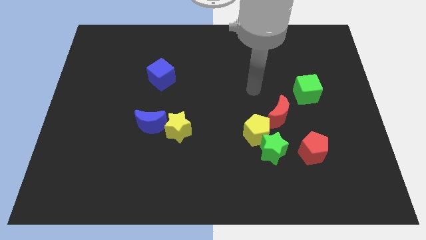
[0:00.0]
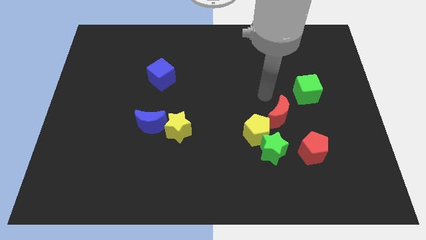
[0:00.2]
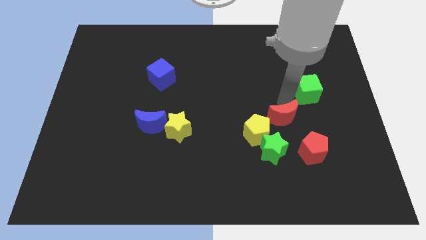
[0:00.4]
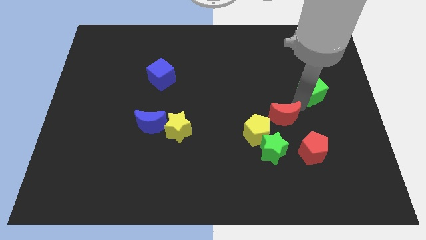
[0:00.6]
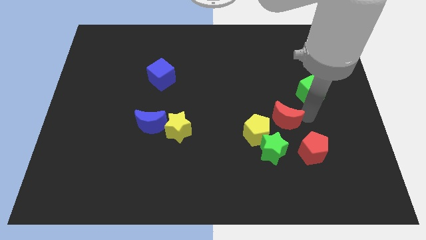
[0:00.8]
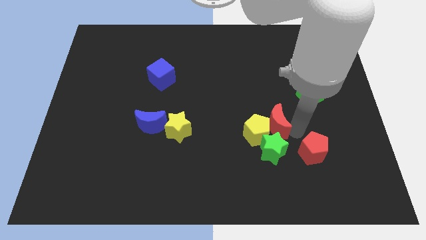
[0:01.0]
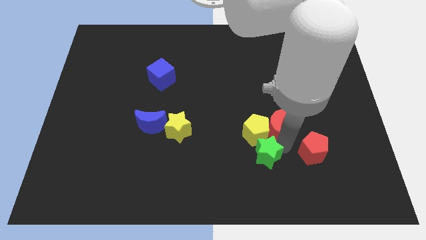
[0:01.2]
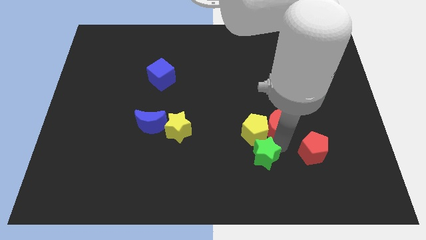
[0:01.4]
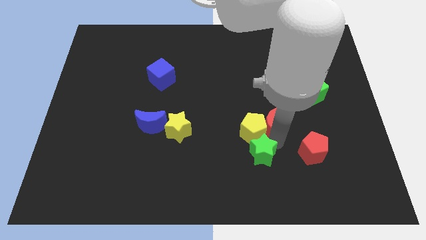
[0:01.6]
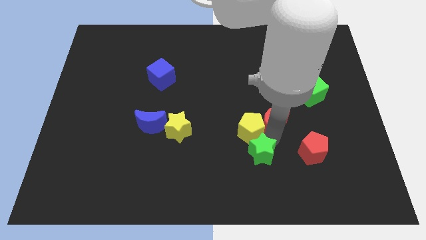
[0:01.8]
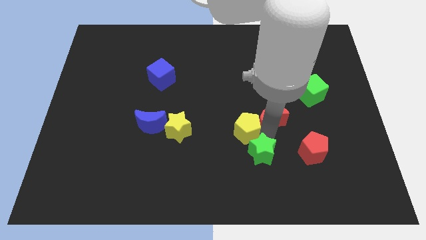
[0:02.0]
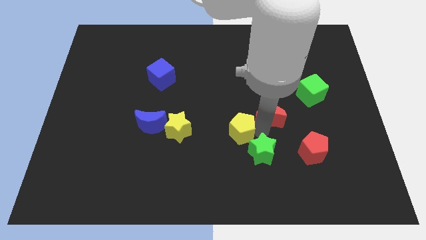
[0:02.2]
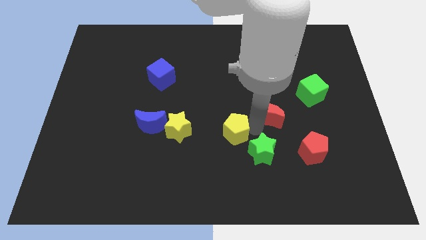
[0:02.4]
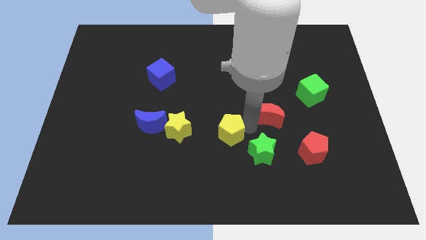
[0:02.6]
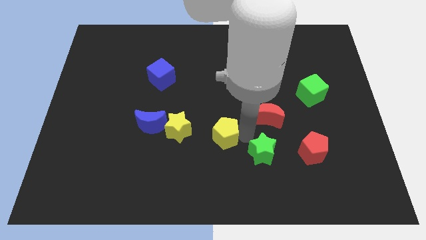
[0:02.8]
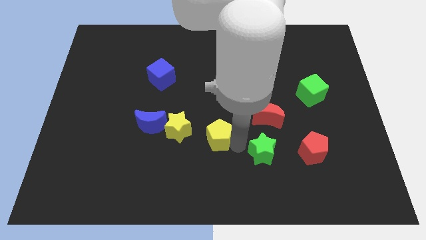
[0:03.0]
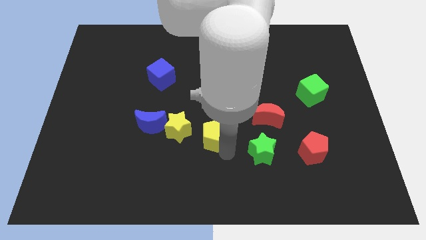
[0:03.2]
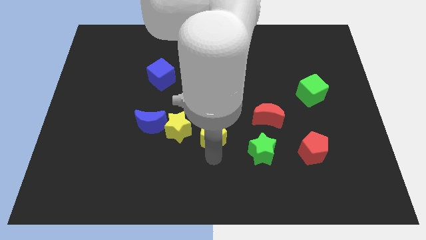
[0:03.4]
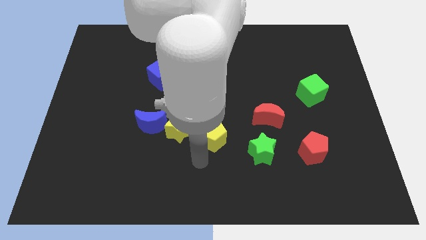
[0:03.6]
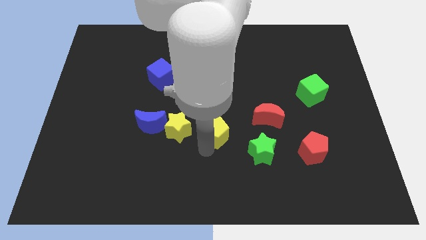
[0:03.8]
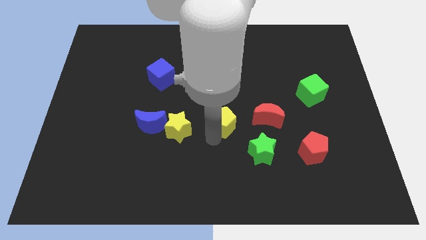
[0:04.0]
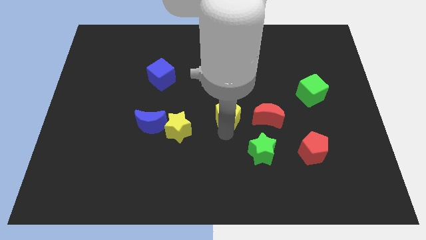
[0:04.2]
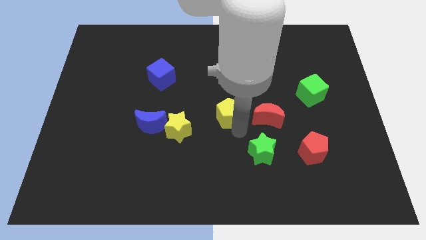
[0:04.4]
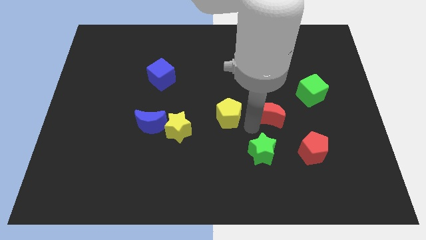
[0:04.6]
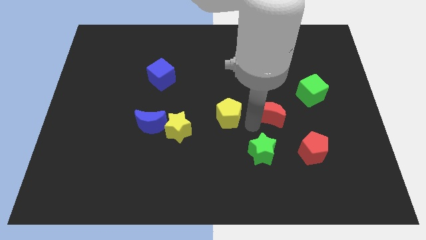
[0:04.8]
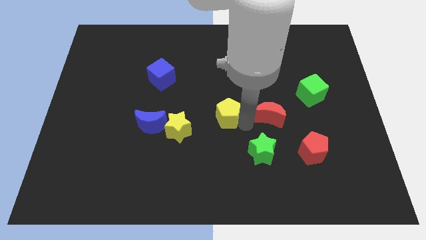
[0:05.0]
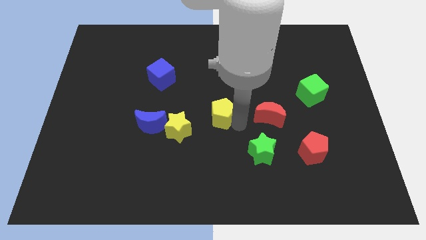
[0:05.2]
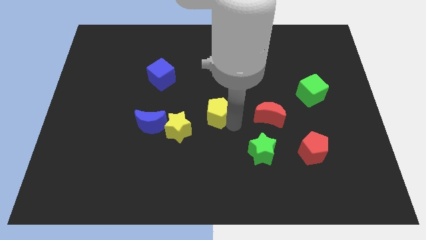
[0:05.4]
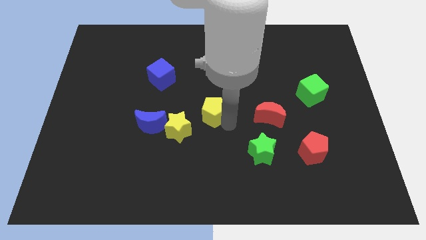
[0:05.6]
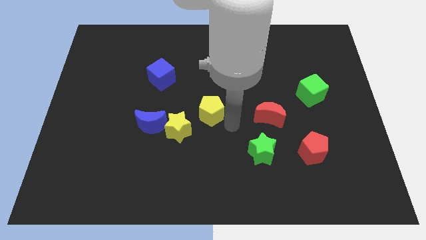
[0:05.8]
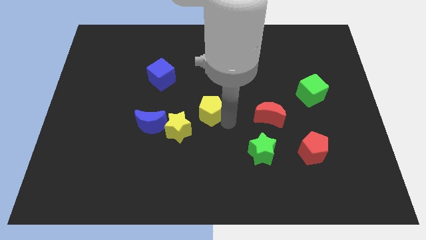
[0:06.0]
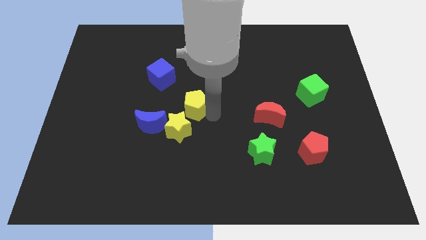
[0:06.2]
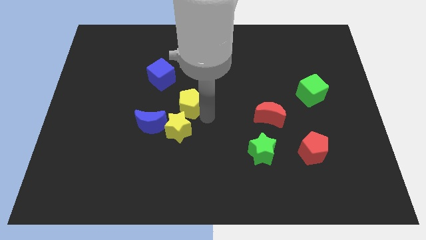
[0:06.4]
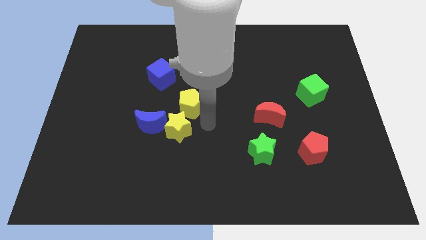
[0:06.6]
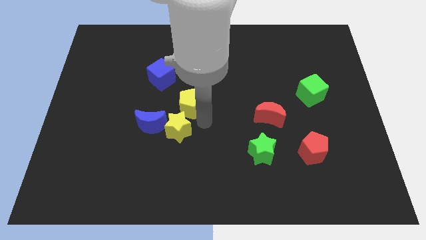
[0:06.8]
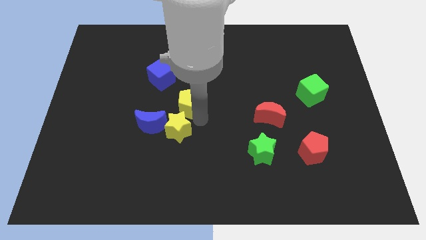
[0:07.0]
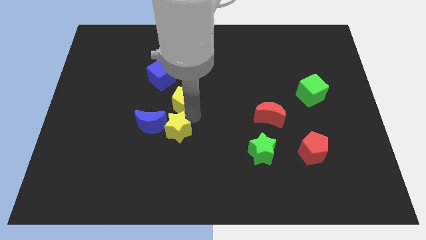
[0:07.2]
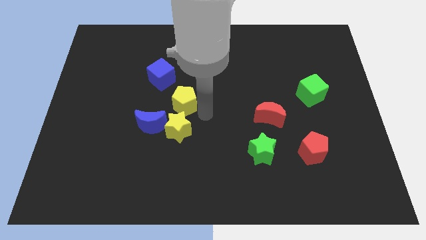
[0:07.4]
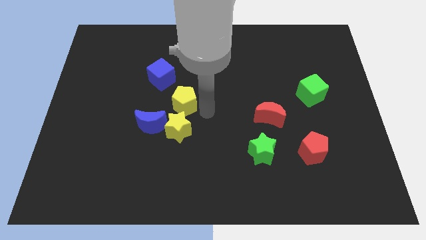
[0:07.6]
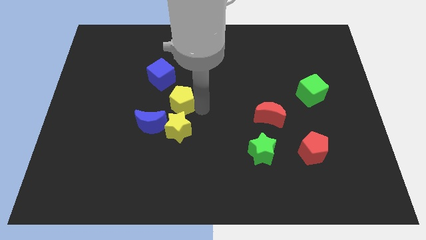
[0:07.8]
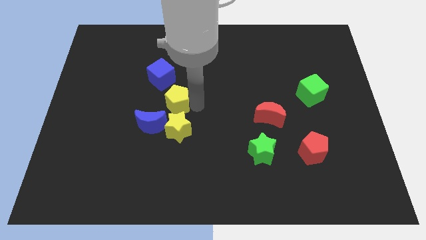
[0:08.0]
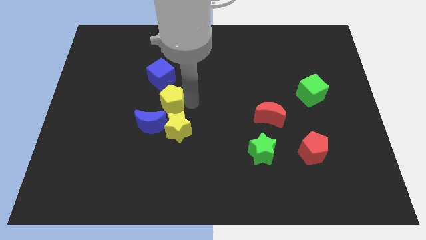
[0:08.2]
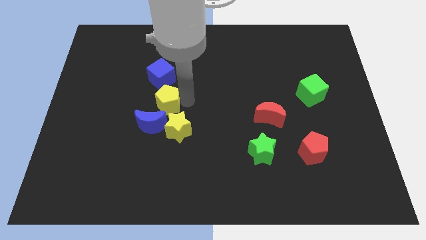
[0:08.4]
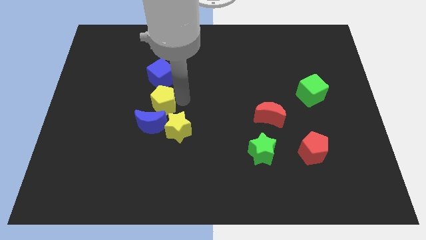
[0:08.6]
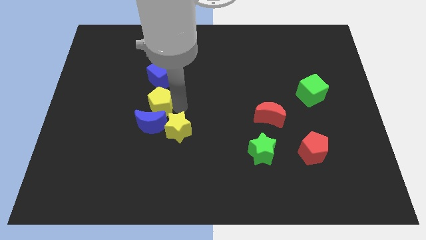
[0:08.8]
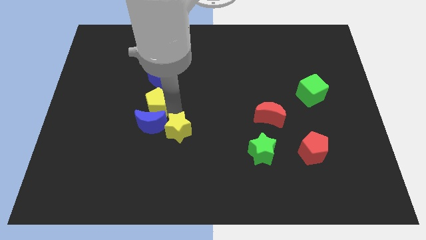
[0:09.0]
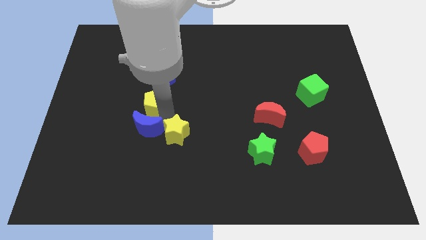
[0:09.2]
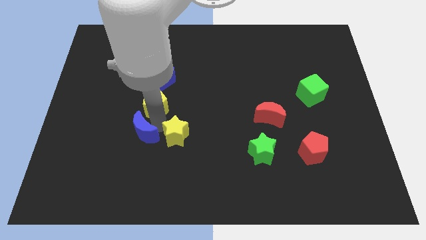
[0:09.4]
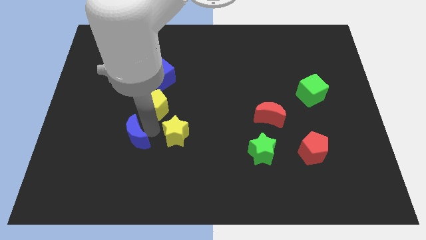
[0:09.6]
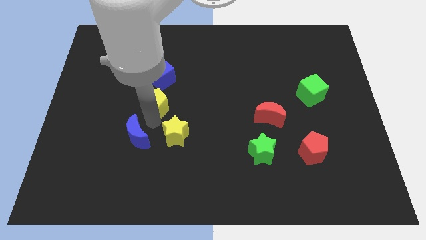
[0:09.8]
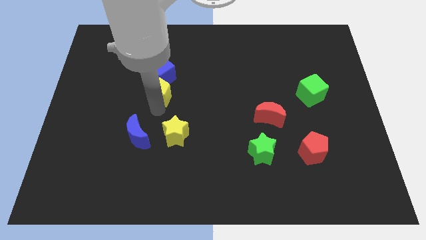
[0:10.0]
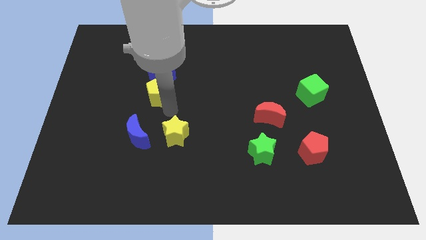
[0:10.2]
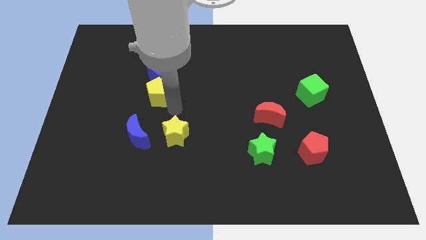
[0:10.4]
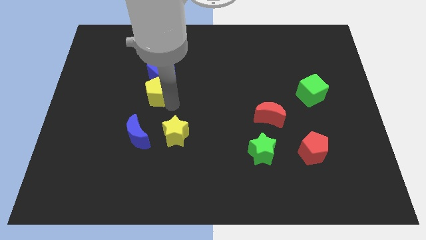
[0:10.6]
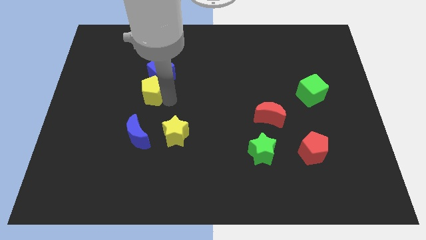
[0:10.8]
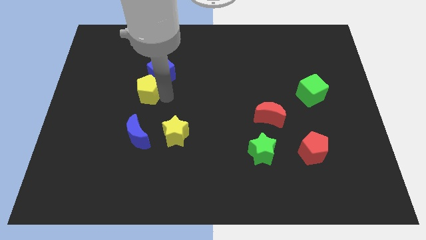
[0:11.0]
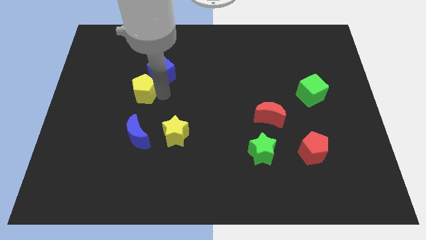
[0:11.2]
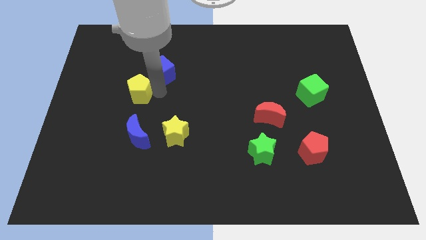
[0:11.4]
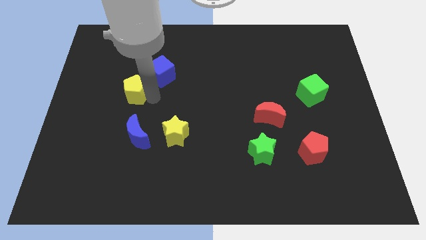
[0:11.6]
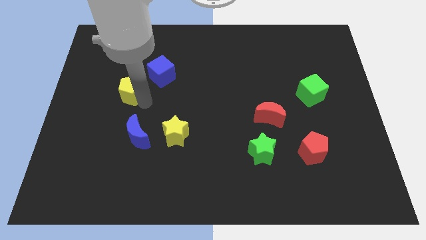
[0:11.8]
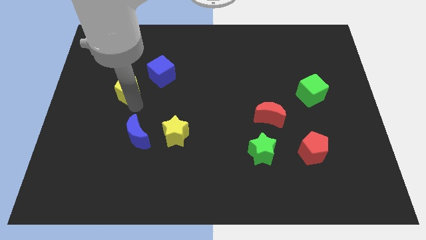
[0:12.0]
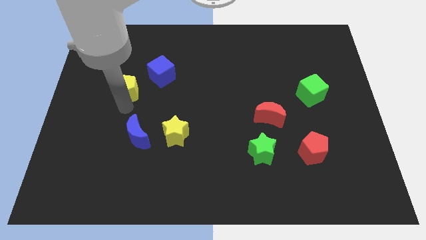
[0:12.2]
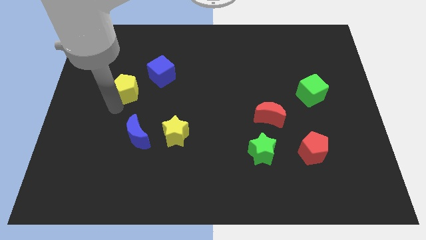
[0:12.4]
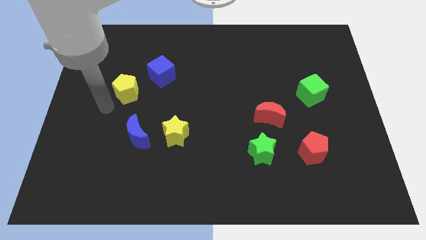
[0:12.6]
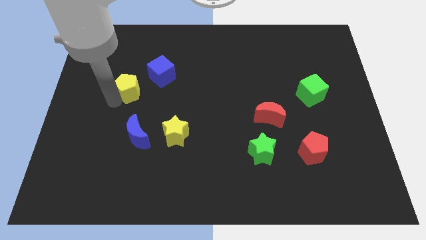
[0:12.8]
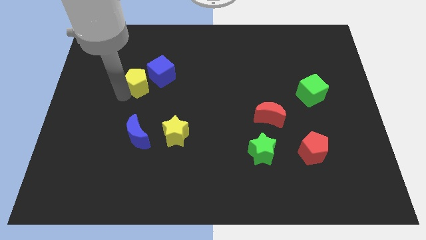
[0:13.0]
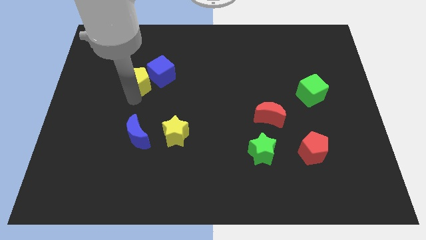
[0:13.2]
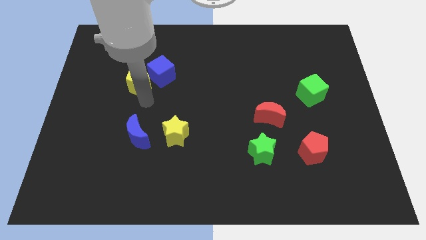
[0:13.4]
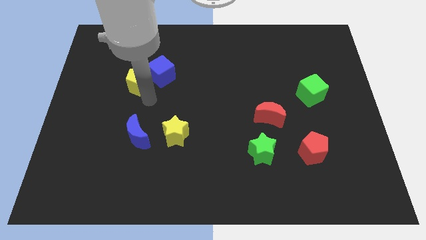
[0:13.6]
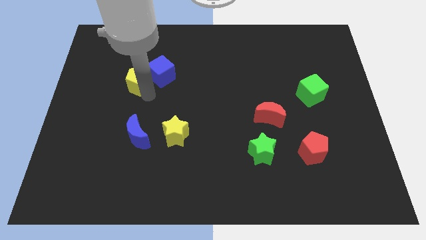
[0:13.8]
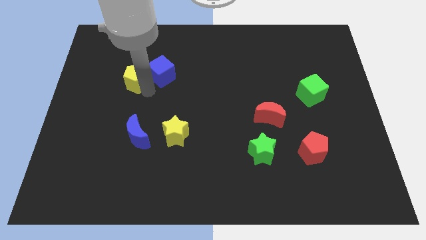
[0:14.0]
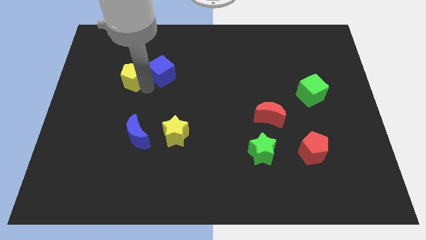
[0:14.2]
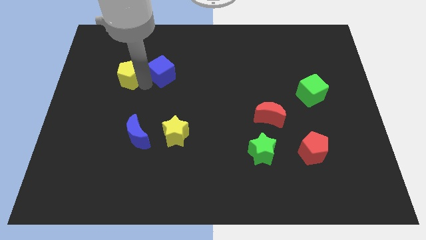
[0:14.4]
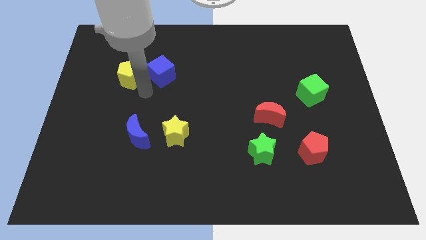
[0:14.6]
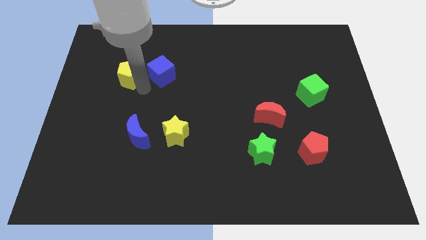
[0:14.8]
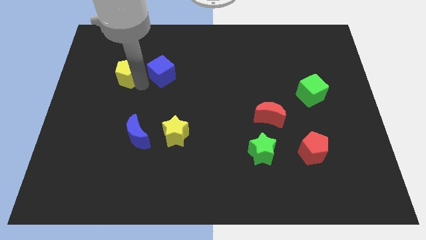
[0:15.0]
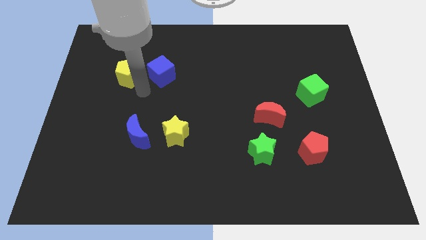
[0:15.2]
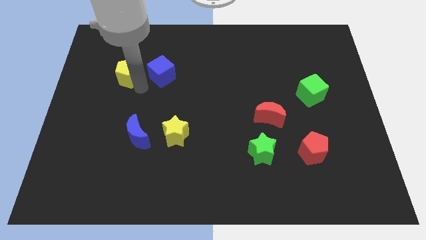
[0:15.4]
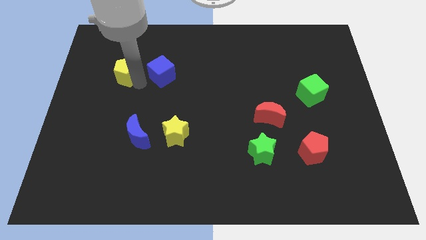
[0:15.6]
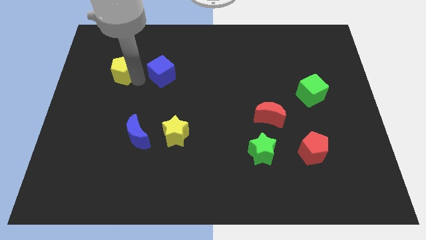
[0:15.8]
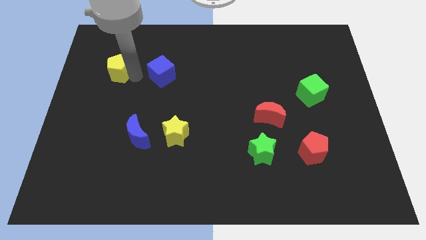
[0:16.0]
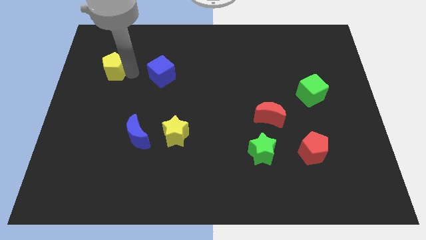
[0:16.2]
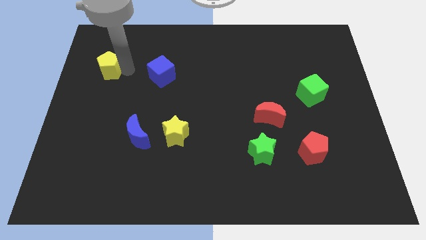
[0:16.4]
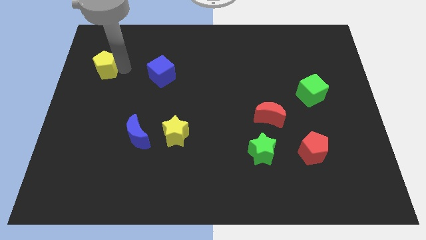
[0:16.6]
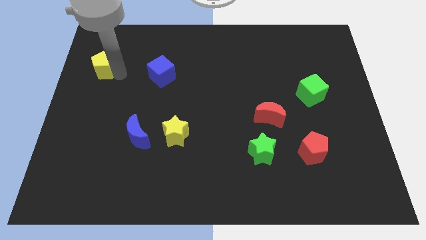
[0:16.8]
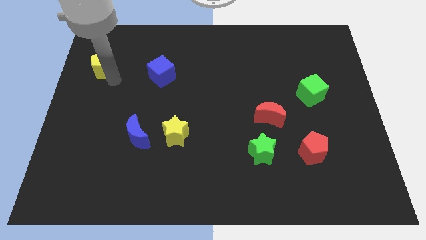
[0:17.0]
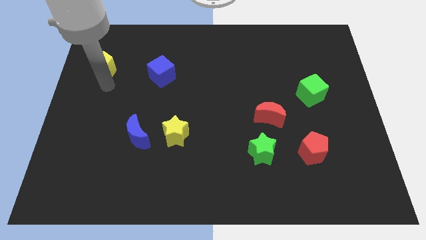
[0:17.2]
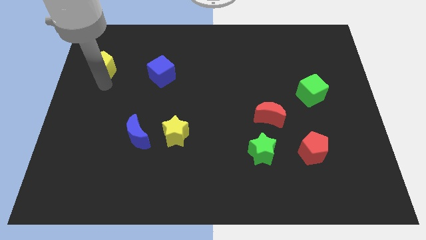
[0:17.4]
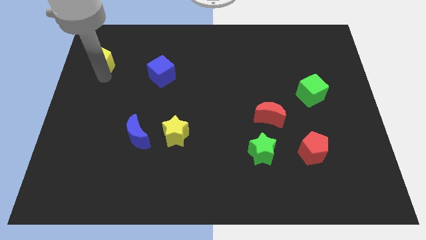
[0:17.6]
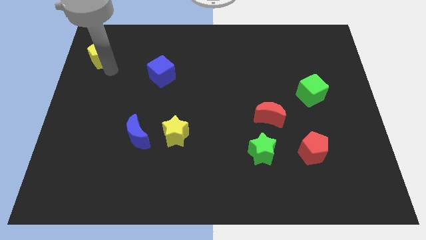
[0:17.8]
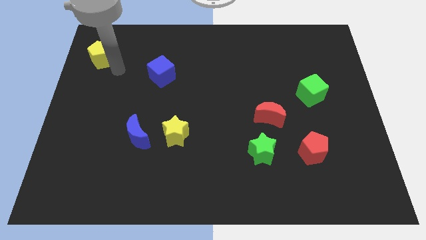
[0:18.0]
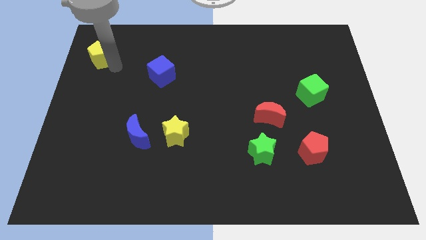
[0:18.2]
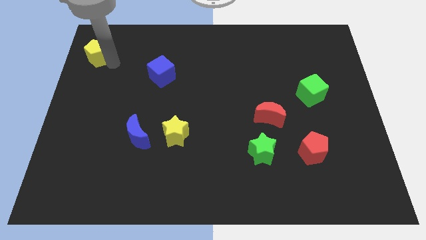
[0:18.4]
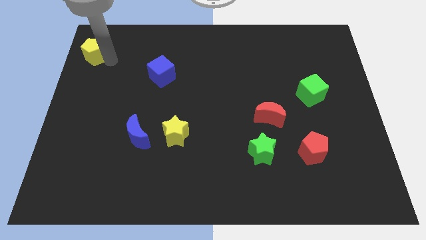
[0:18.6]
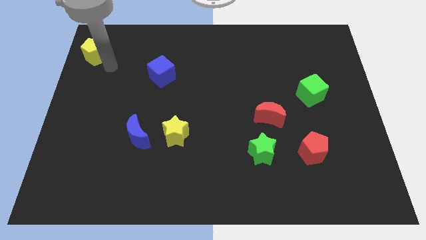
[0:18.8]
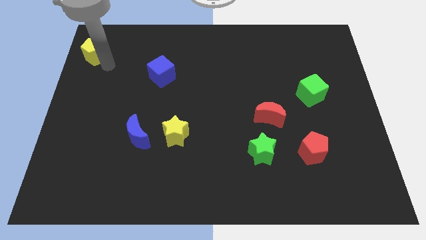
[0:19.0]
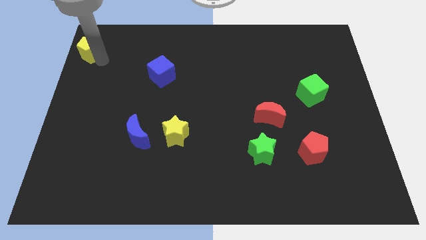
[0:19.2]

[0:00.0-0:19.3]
push the yellow pentagon to the top left
